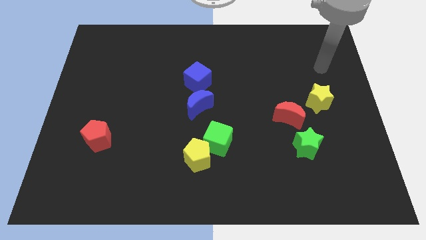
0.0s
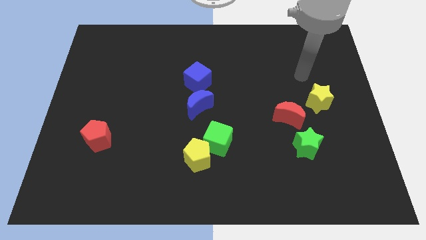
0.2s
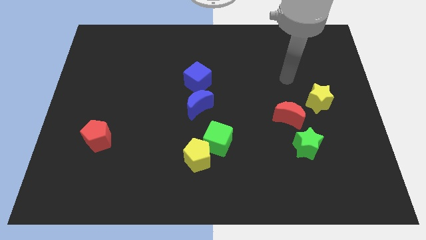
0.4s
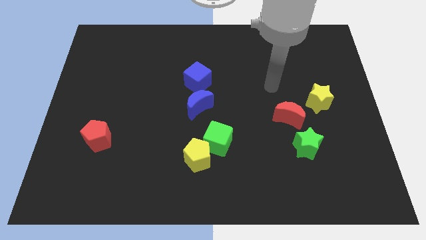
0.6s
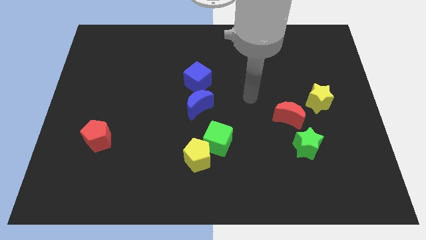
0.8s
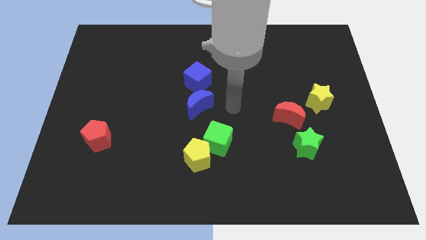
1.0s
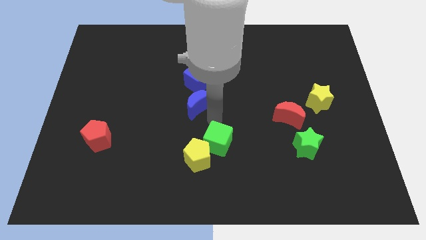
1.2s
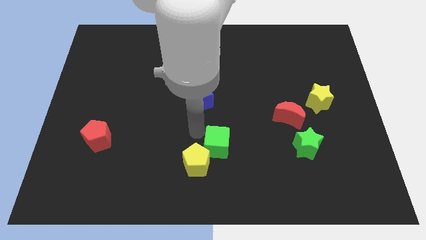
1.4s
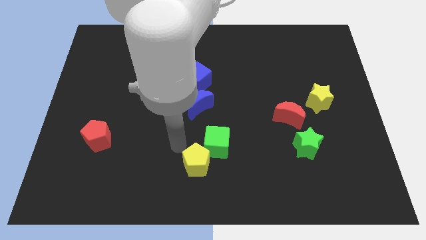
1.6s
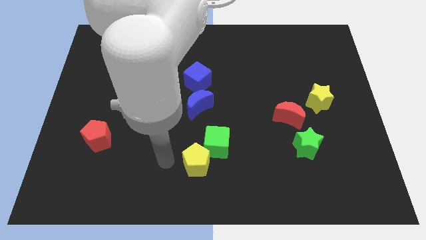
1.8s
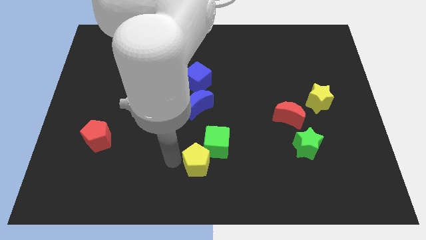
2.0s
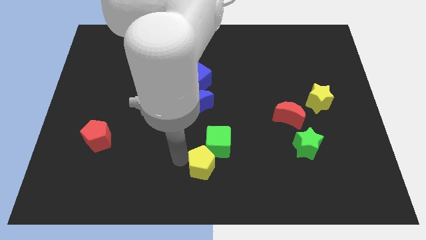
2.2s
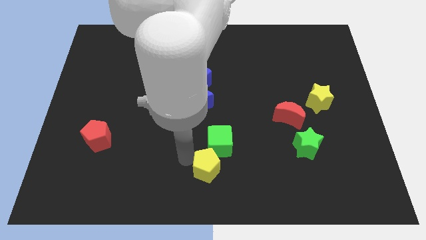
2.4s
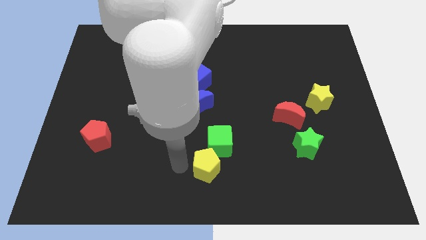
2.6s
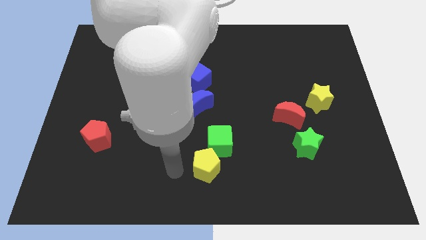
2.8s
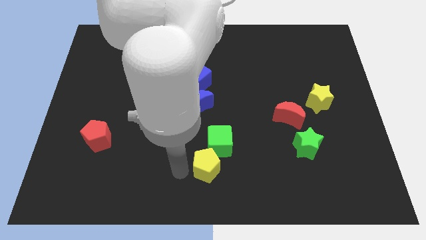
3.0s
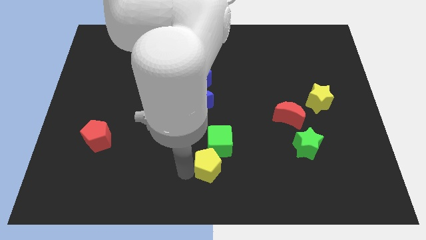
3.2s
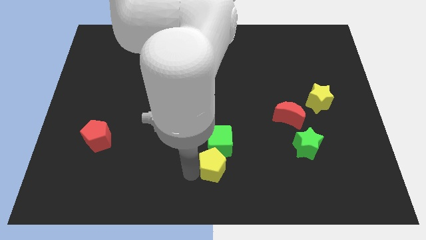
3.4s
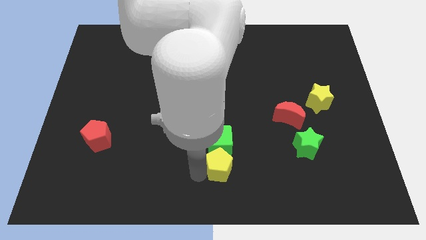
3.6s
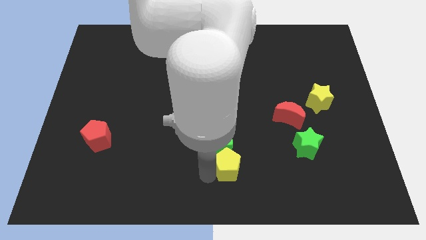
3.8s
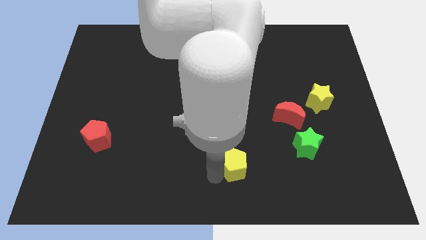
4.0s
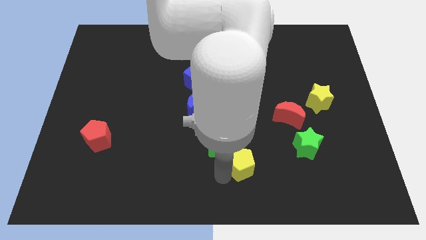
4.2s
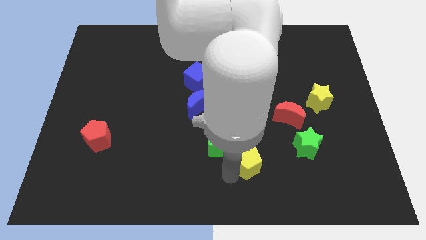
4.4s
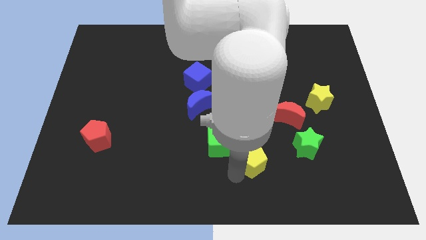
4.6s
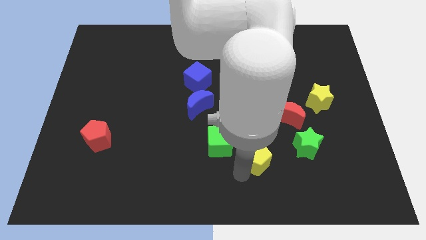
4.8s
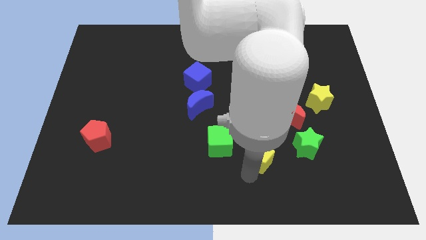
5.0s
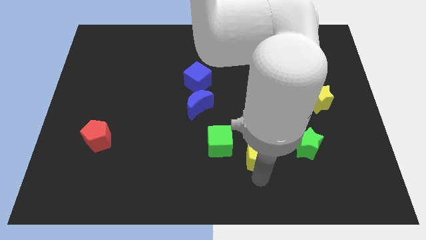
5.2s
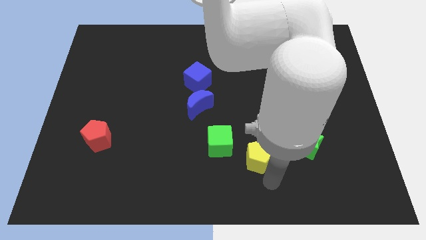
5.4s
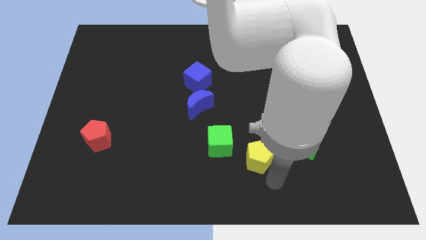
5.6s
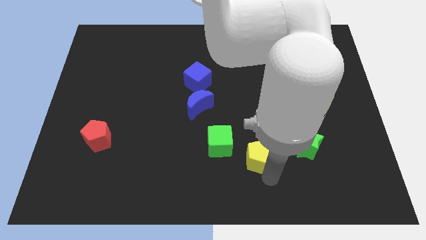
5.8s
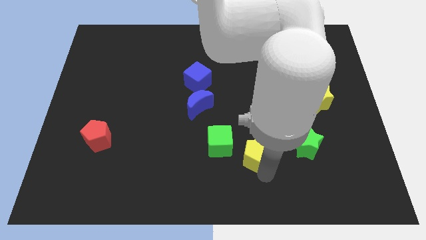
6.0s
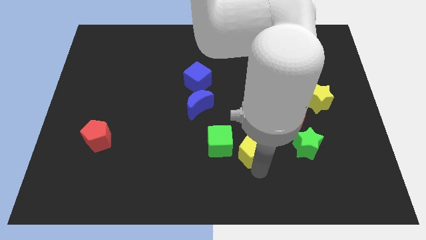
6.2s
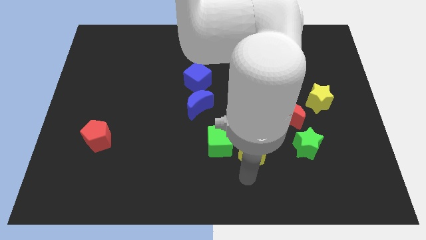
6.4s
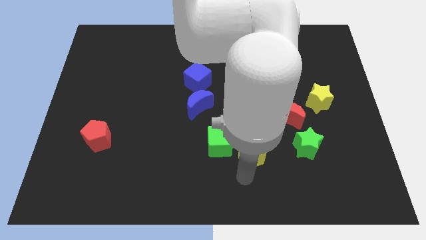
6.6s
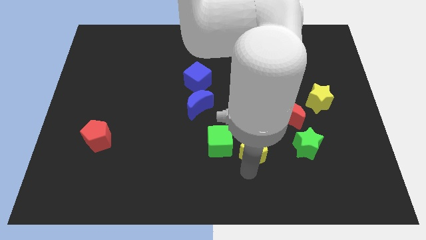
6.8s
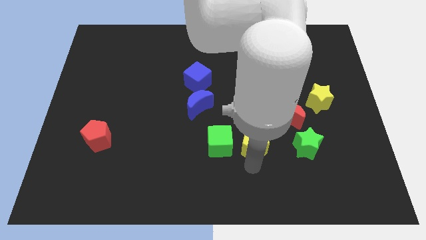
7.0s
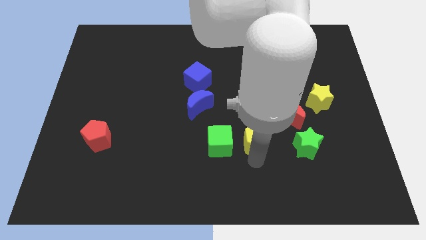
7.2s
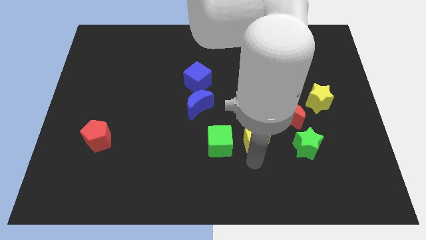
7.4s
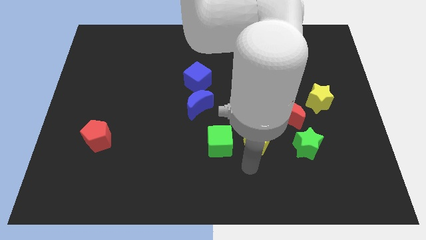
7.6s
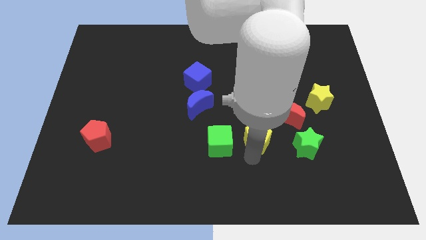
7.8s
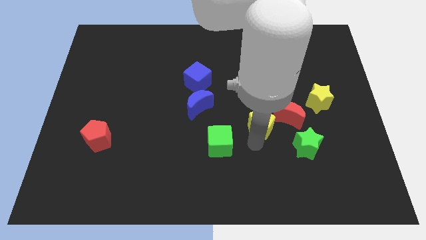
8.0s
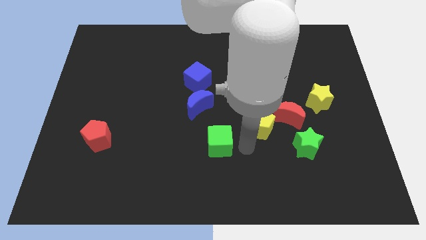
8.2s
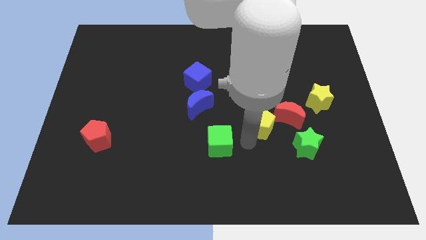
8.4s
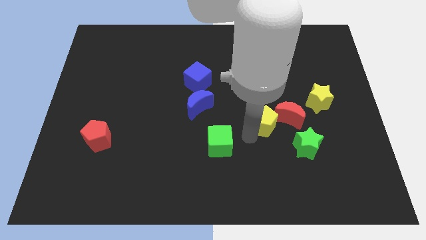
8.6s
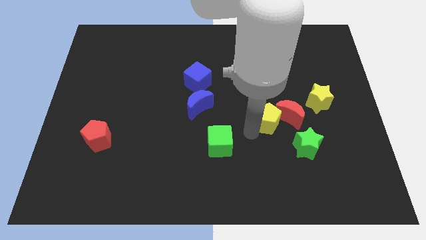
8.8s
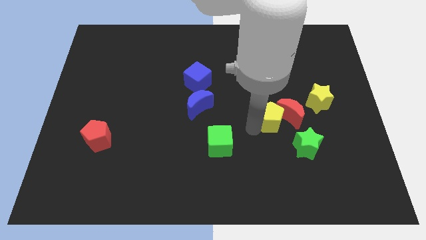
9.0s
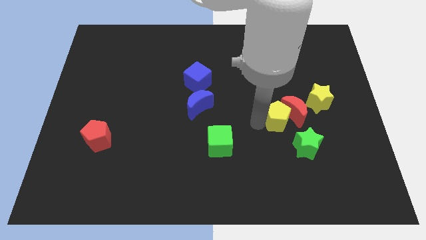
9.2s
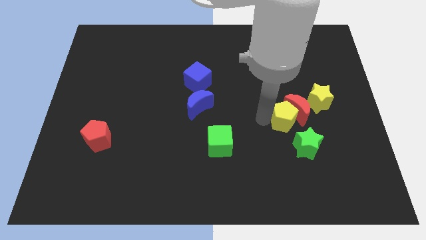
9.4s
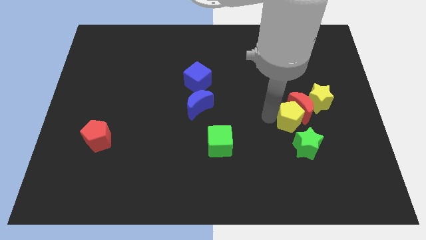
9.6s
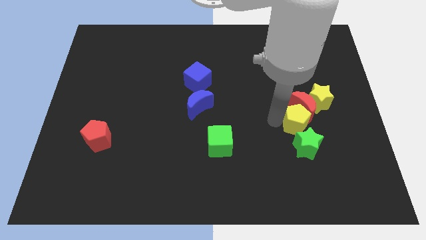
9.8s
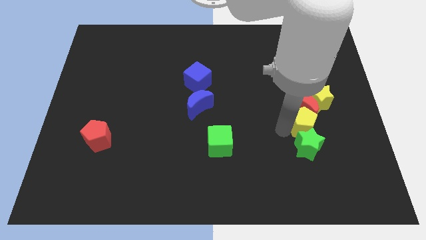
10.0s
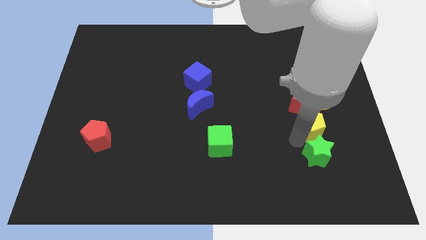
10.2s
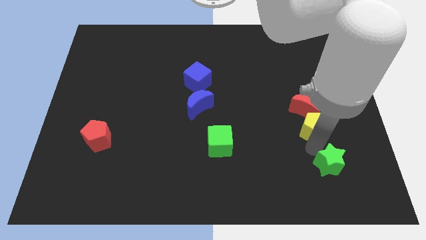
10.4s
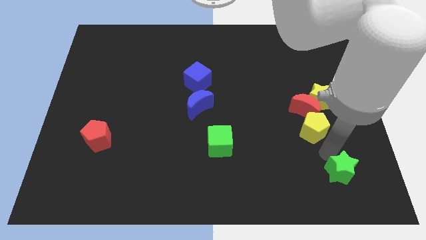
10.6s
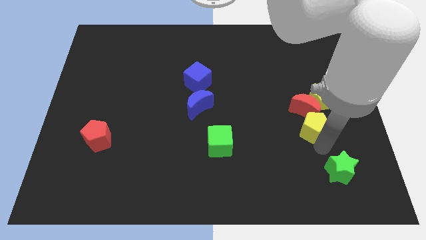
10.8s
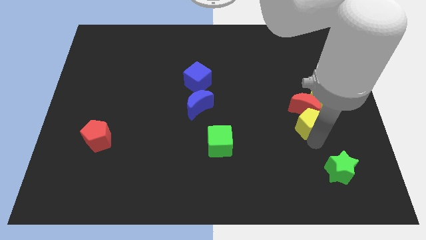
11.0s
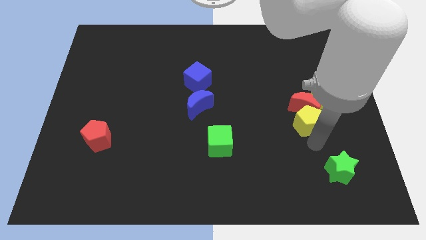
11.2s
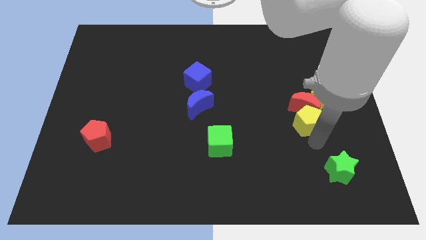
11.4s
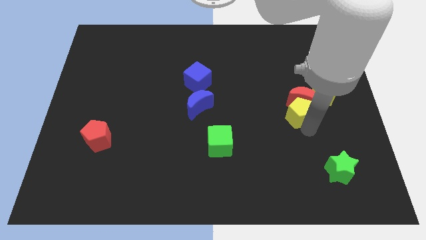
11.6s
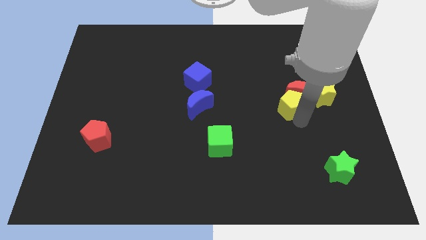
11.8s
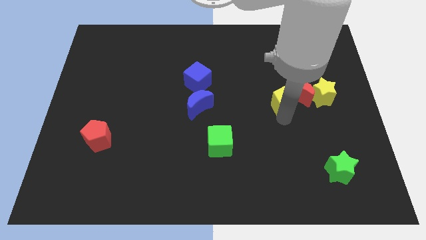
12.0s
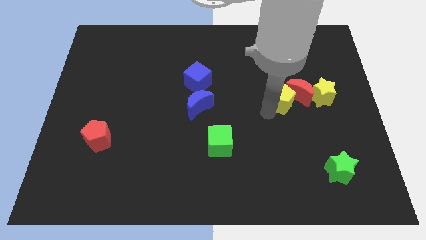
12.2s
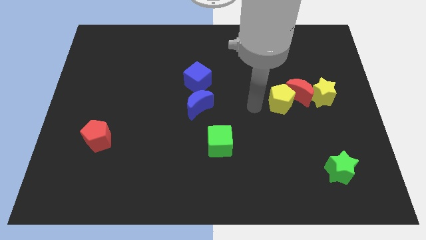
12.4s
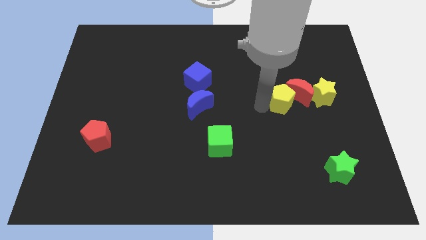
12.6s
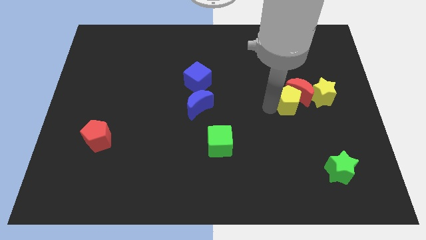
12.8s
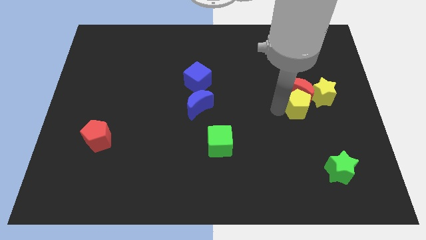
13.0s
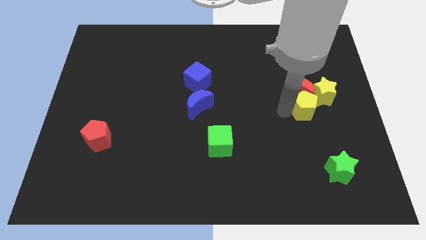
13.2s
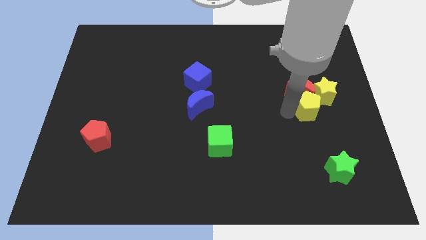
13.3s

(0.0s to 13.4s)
push the yellow pentagon towards the yellow star
